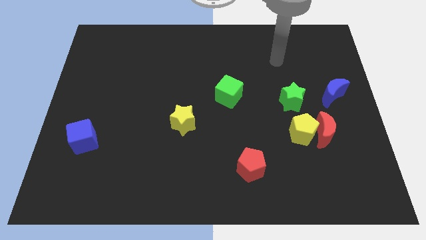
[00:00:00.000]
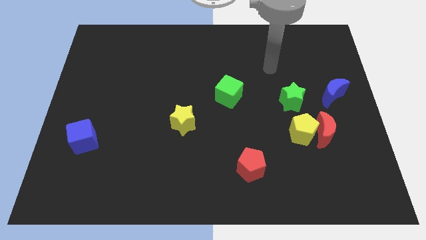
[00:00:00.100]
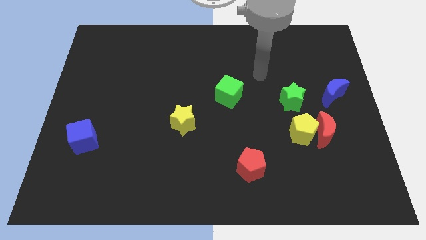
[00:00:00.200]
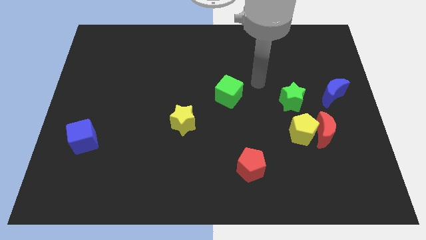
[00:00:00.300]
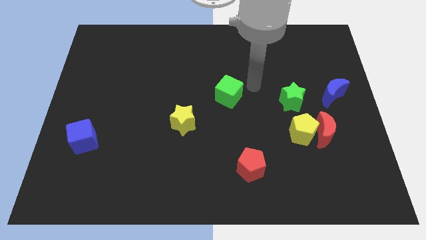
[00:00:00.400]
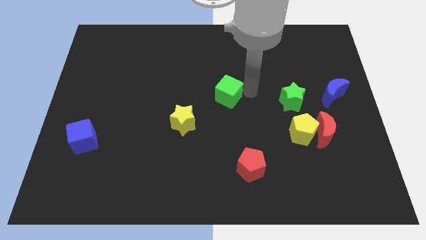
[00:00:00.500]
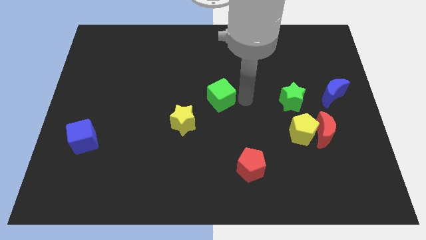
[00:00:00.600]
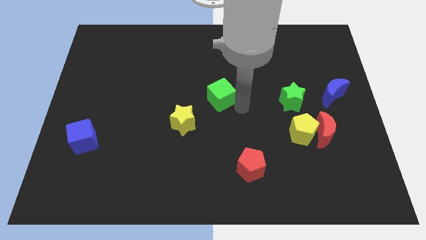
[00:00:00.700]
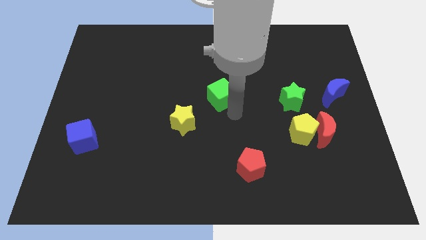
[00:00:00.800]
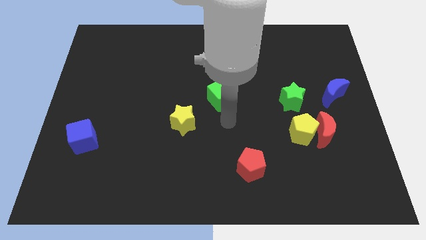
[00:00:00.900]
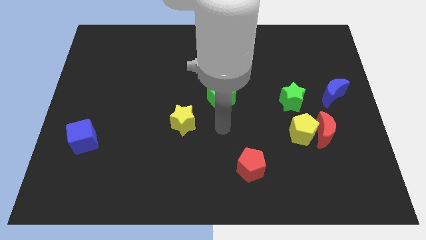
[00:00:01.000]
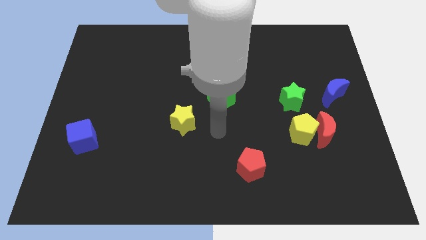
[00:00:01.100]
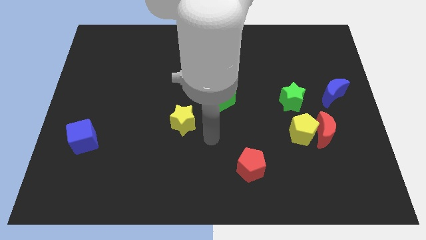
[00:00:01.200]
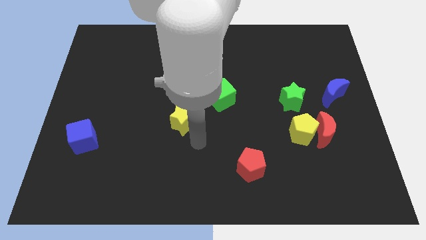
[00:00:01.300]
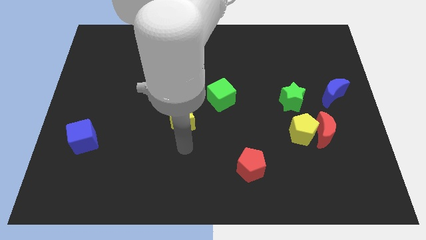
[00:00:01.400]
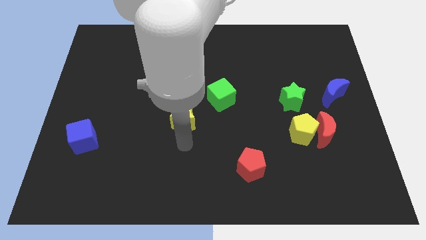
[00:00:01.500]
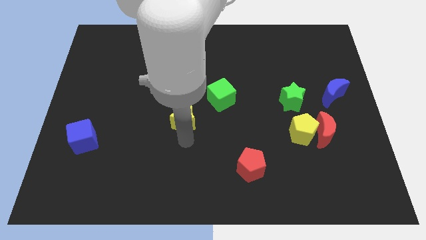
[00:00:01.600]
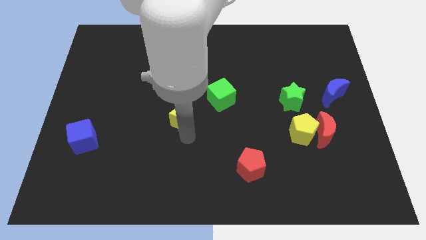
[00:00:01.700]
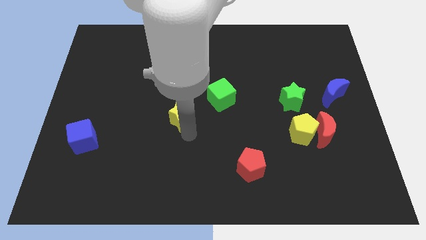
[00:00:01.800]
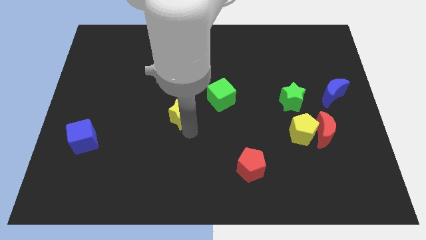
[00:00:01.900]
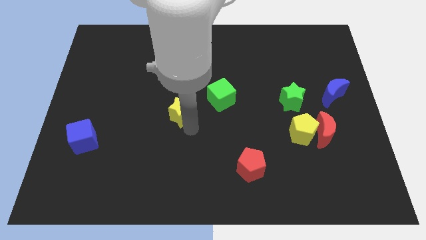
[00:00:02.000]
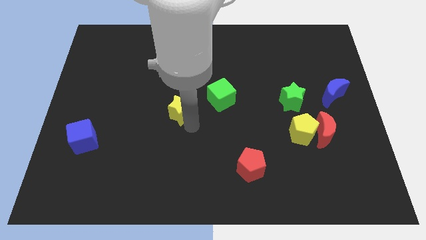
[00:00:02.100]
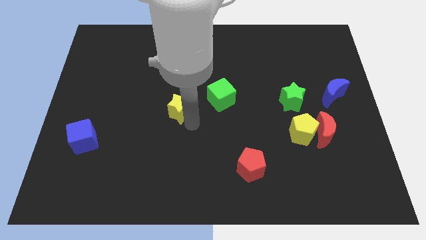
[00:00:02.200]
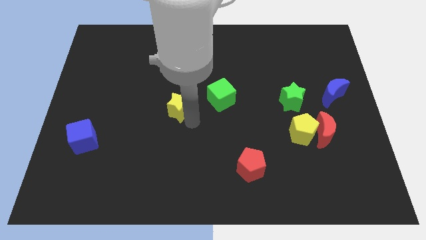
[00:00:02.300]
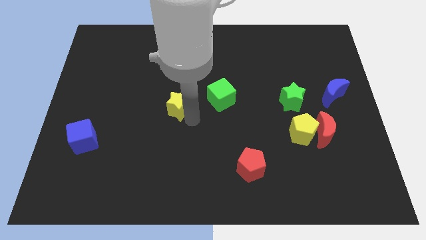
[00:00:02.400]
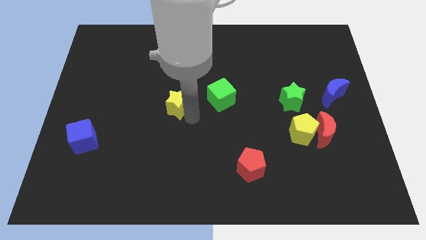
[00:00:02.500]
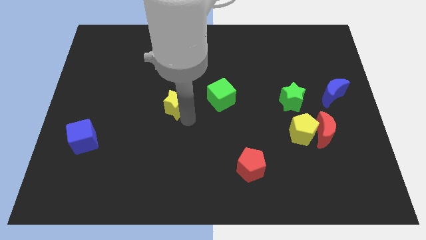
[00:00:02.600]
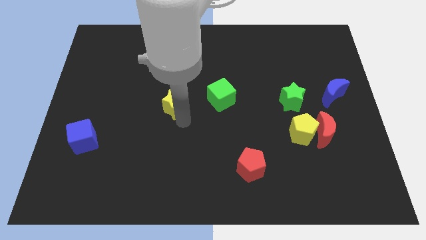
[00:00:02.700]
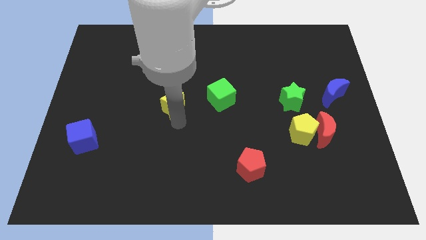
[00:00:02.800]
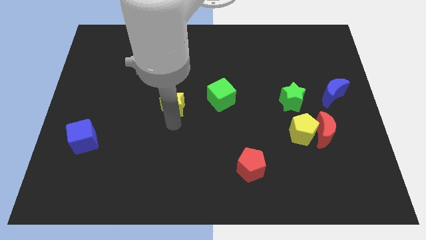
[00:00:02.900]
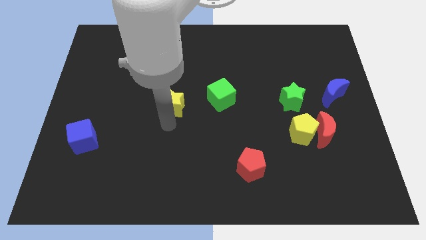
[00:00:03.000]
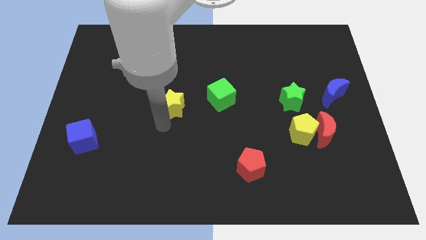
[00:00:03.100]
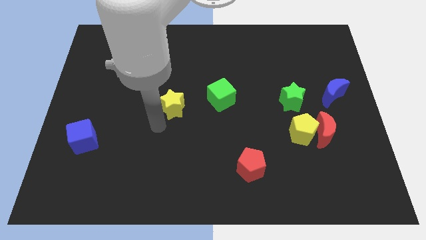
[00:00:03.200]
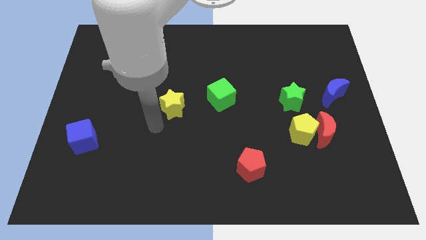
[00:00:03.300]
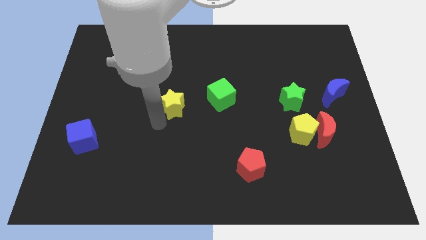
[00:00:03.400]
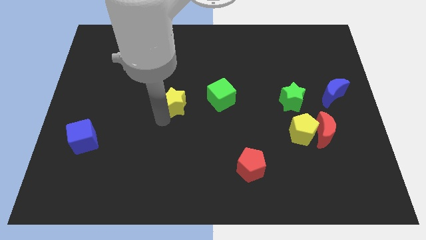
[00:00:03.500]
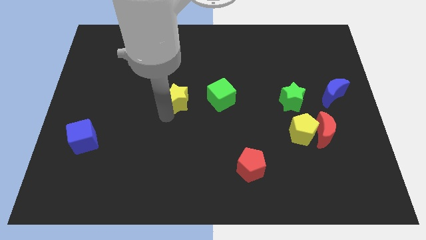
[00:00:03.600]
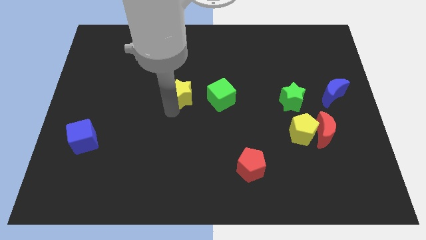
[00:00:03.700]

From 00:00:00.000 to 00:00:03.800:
push the yellow star a little up

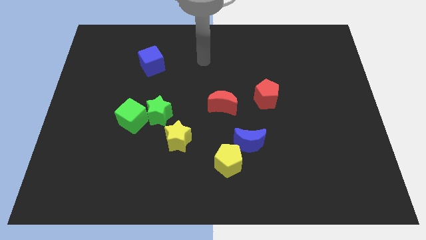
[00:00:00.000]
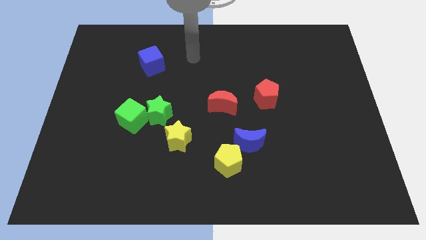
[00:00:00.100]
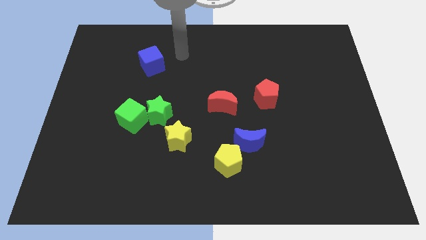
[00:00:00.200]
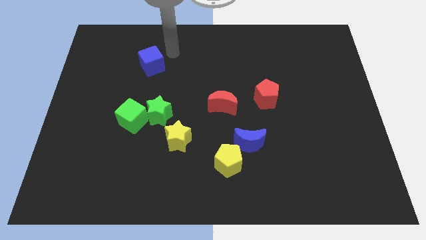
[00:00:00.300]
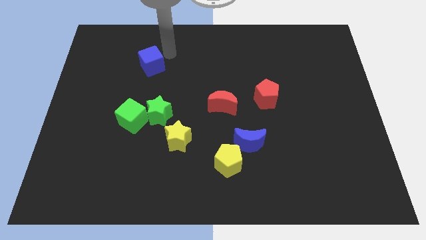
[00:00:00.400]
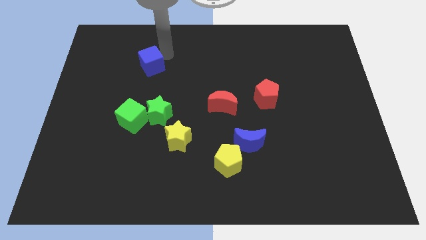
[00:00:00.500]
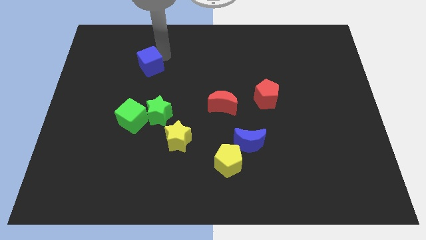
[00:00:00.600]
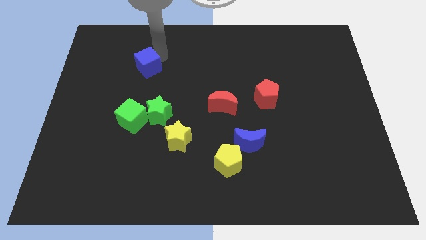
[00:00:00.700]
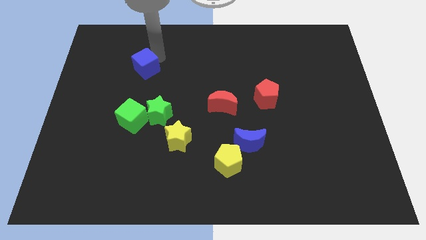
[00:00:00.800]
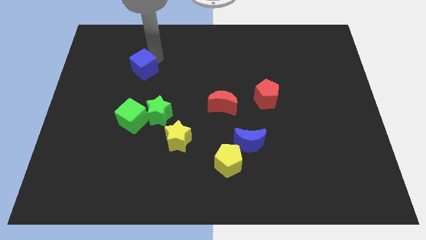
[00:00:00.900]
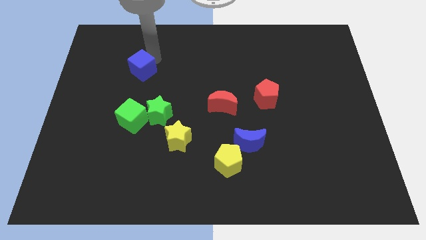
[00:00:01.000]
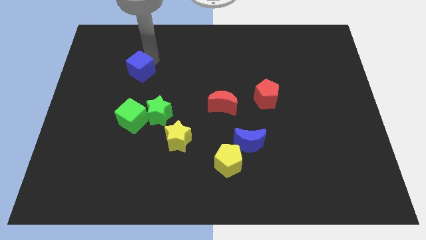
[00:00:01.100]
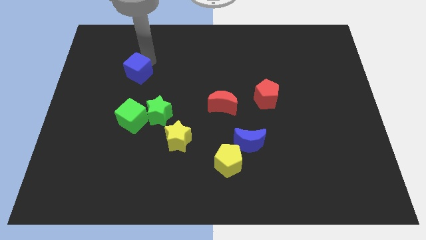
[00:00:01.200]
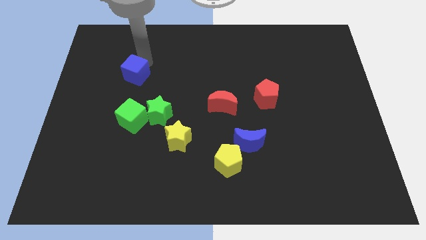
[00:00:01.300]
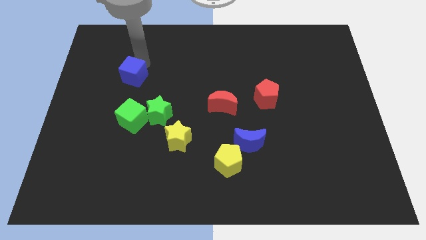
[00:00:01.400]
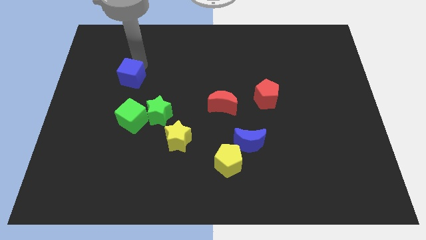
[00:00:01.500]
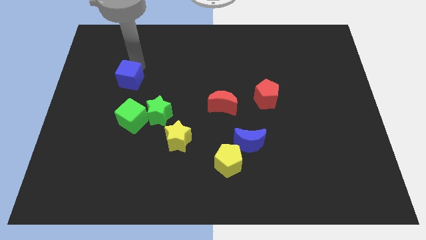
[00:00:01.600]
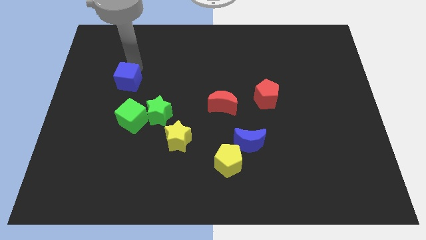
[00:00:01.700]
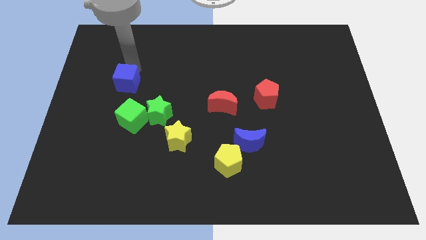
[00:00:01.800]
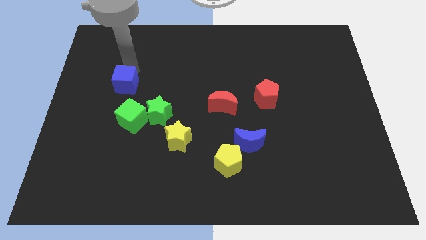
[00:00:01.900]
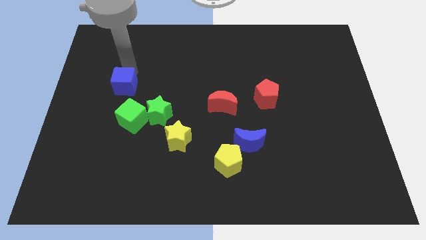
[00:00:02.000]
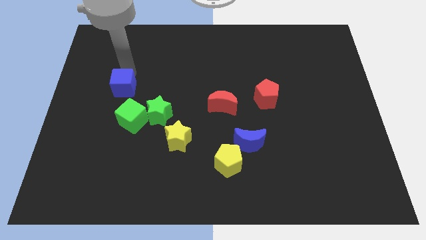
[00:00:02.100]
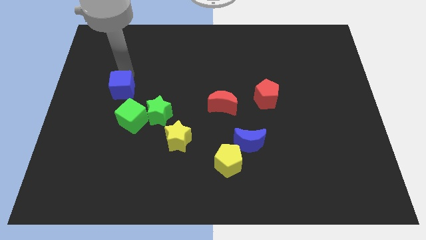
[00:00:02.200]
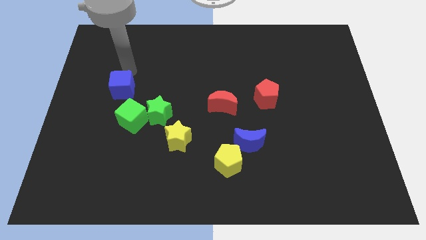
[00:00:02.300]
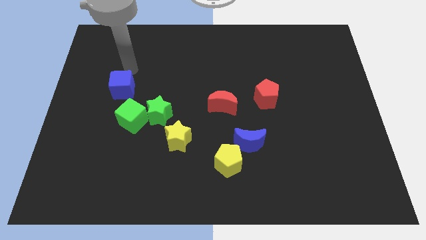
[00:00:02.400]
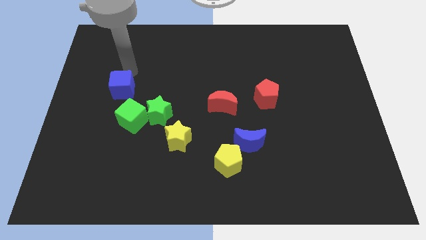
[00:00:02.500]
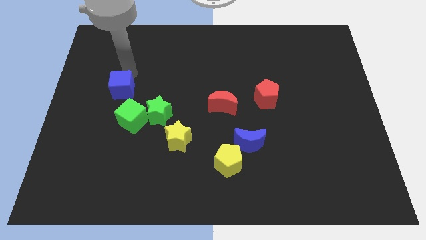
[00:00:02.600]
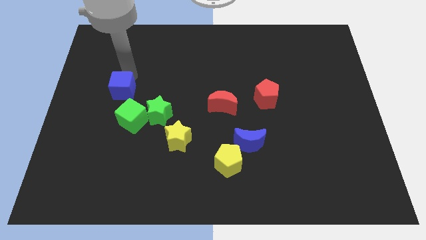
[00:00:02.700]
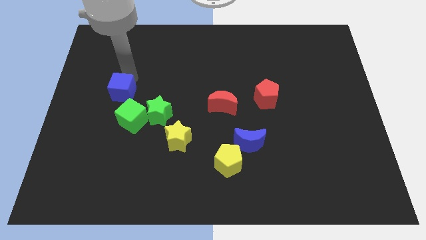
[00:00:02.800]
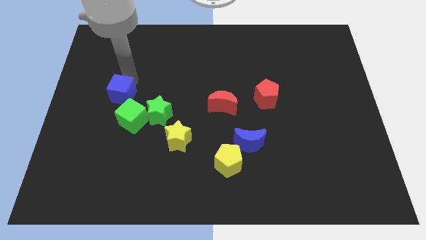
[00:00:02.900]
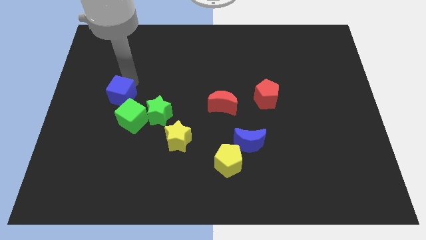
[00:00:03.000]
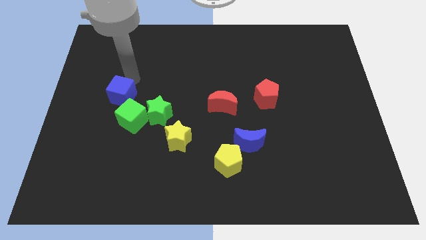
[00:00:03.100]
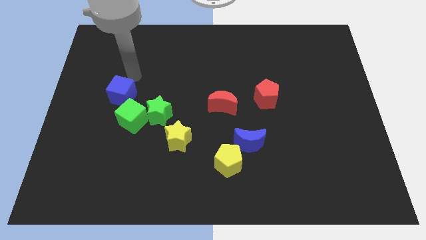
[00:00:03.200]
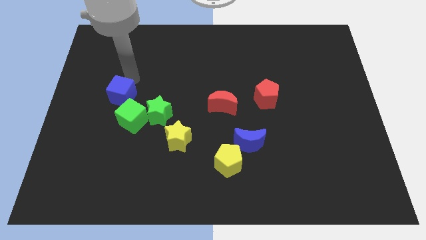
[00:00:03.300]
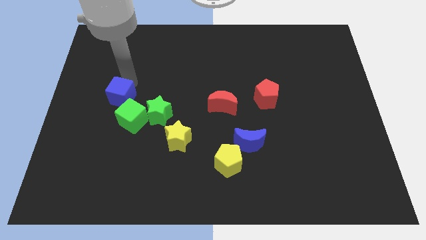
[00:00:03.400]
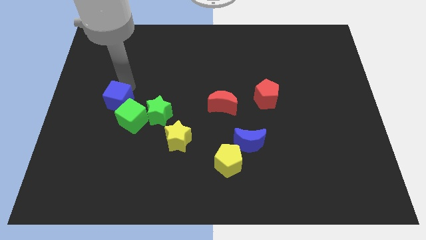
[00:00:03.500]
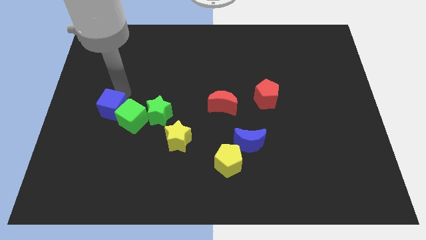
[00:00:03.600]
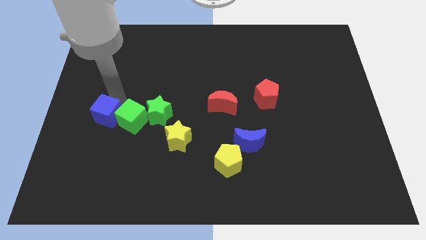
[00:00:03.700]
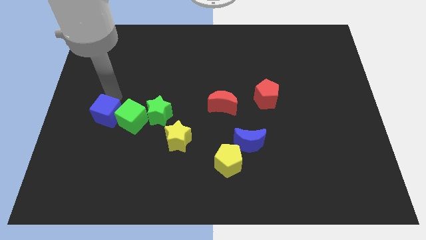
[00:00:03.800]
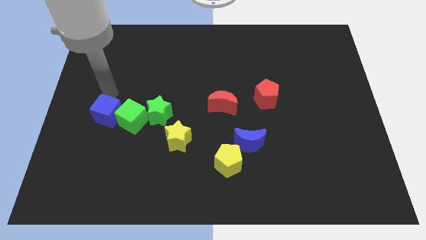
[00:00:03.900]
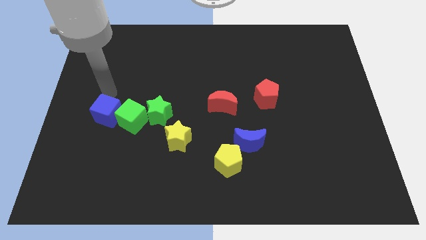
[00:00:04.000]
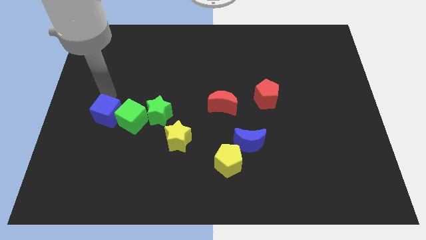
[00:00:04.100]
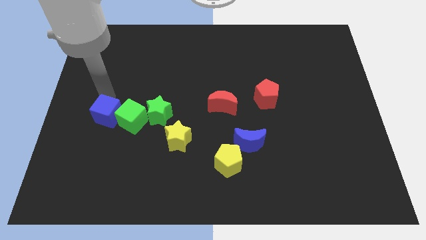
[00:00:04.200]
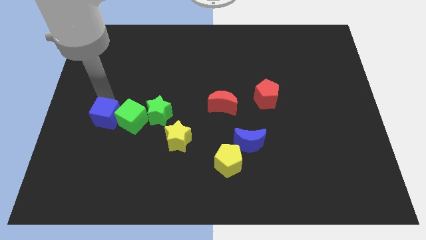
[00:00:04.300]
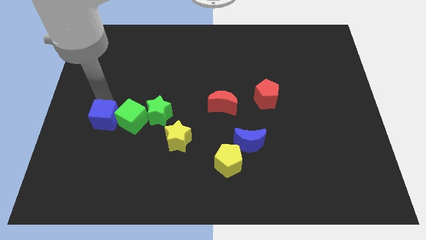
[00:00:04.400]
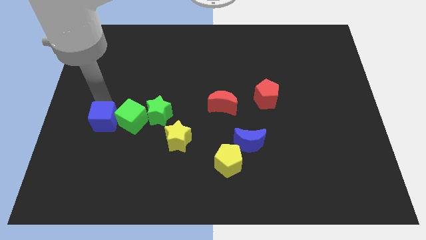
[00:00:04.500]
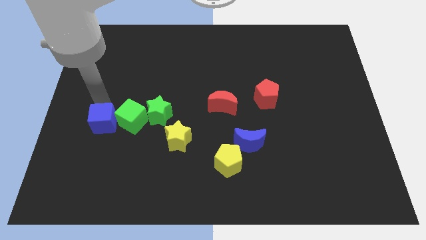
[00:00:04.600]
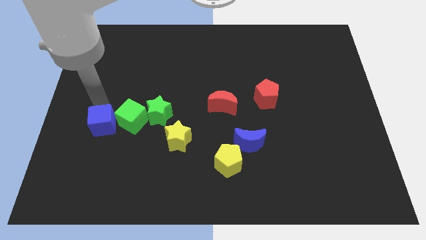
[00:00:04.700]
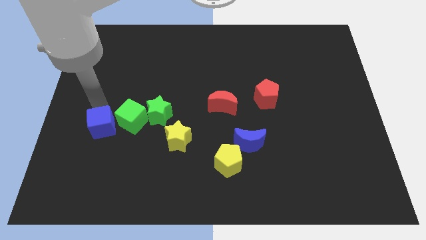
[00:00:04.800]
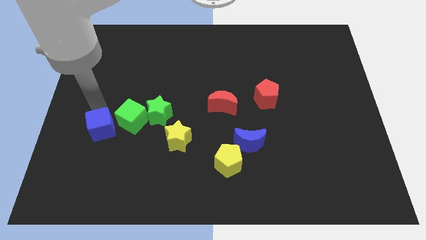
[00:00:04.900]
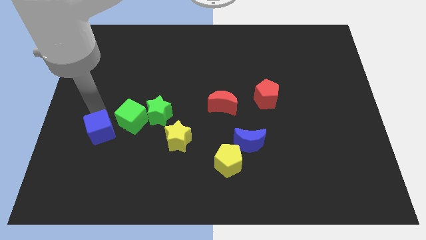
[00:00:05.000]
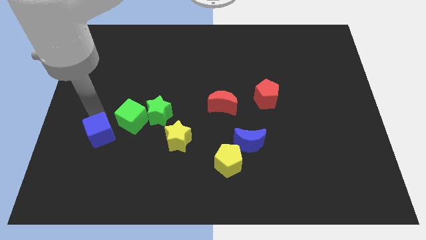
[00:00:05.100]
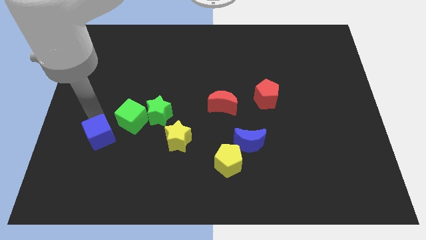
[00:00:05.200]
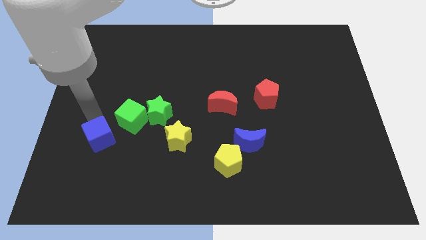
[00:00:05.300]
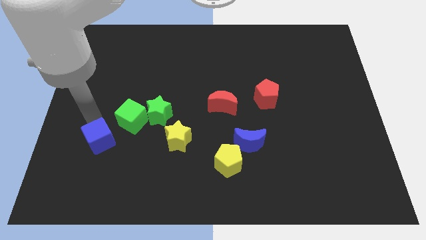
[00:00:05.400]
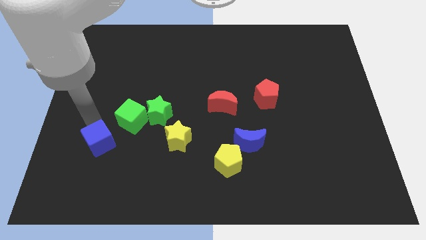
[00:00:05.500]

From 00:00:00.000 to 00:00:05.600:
push the blue cube down
